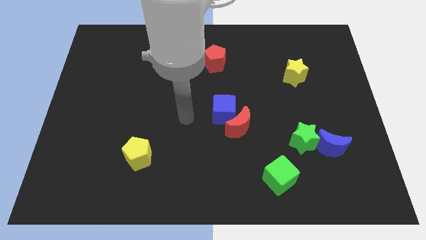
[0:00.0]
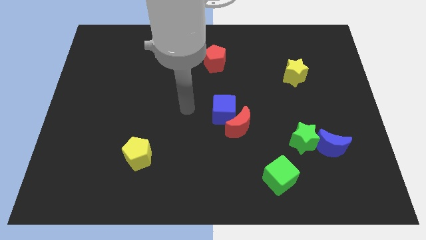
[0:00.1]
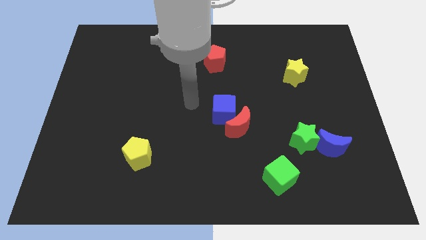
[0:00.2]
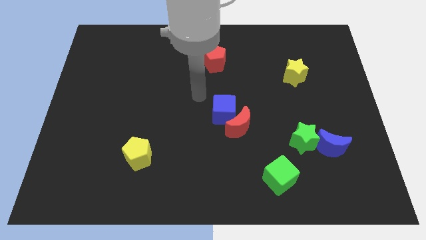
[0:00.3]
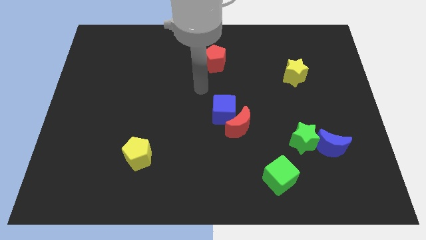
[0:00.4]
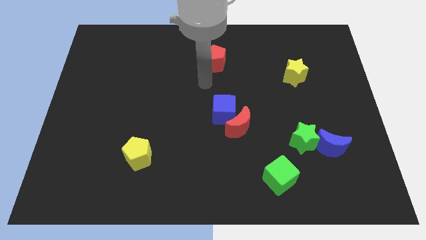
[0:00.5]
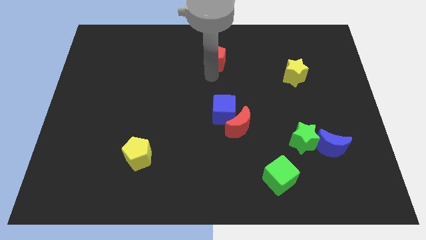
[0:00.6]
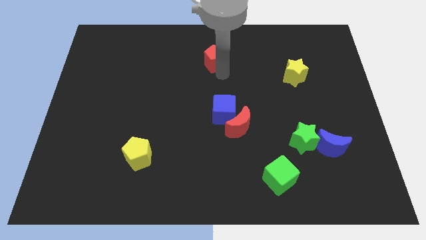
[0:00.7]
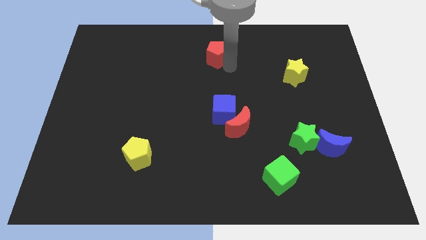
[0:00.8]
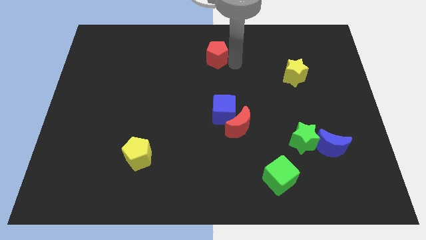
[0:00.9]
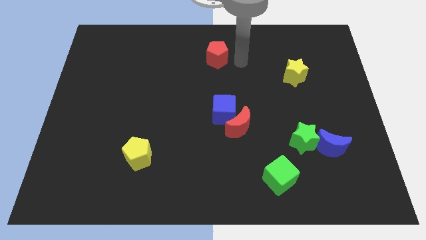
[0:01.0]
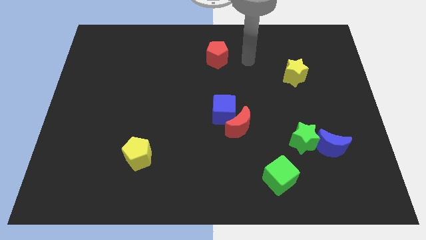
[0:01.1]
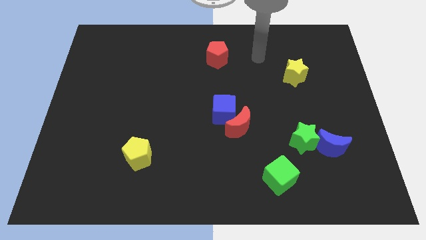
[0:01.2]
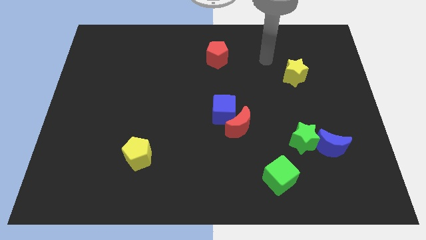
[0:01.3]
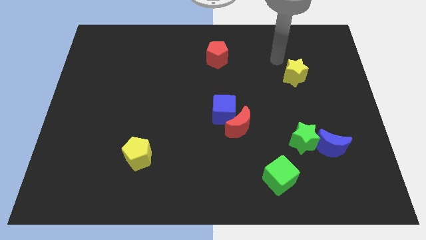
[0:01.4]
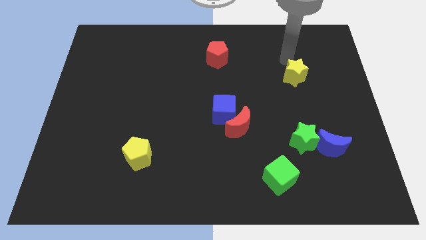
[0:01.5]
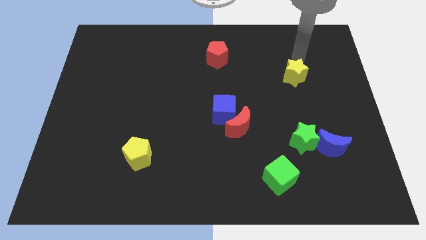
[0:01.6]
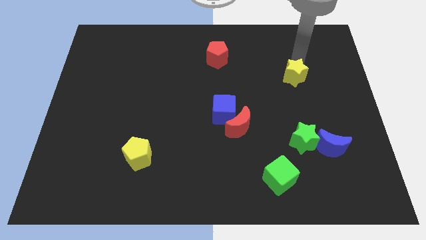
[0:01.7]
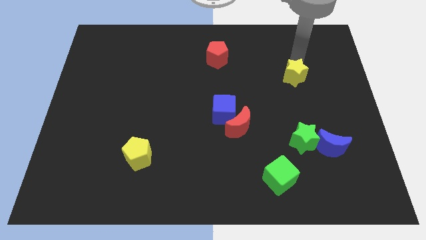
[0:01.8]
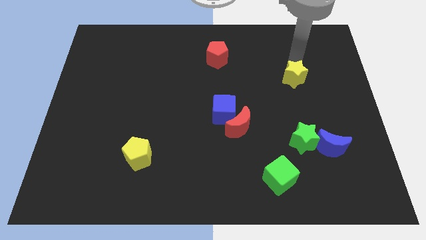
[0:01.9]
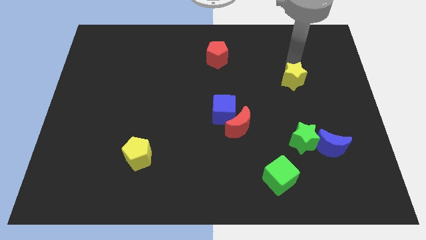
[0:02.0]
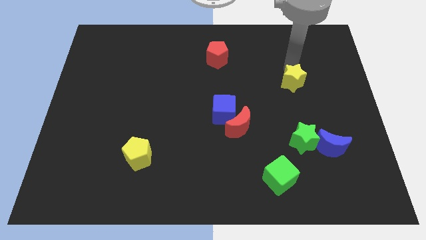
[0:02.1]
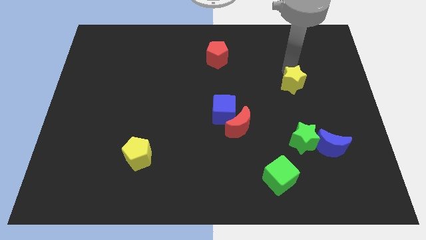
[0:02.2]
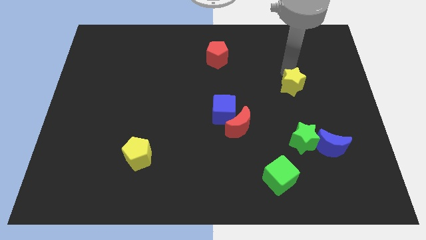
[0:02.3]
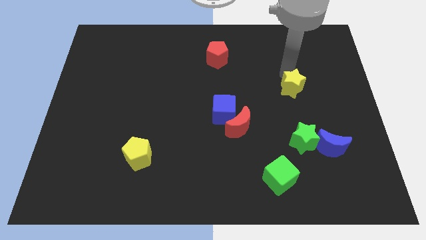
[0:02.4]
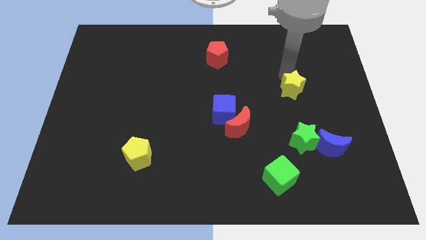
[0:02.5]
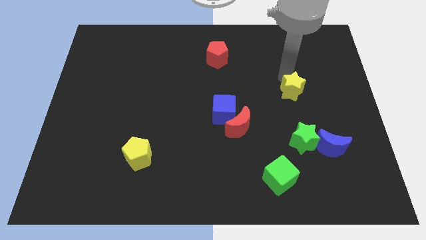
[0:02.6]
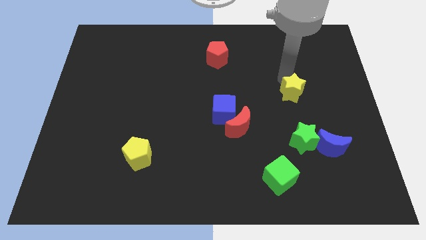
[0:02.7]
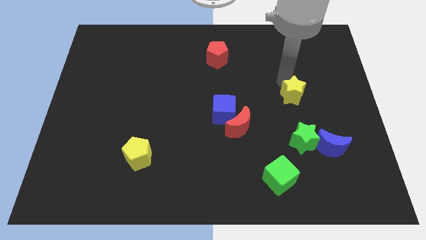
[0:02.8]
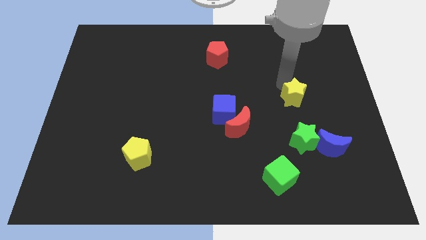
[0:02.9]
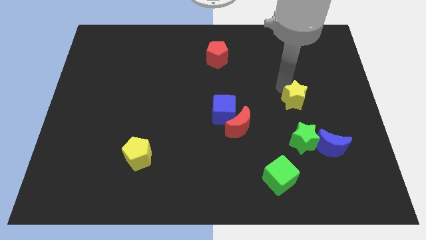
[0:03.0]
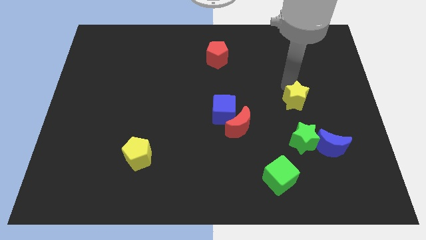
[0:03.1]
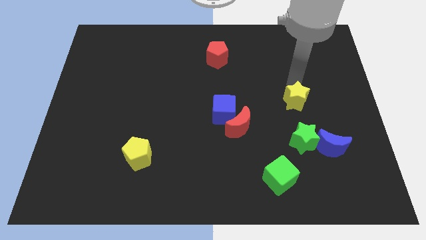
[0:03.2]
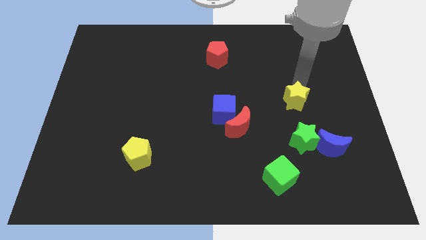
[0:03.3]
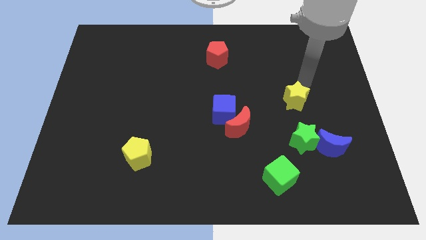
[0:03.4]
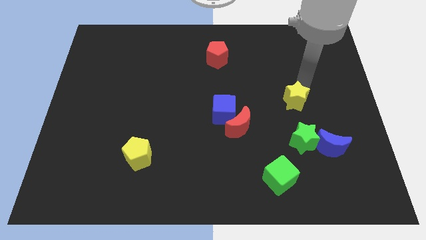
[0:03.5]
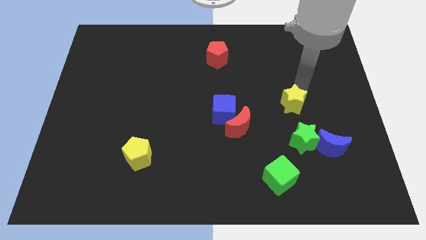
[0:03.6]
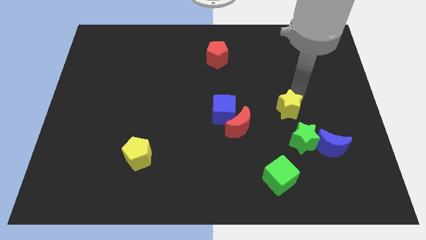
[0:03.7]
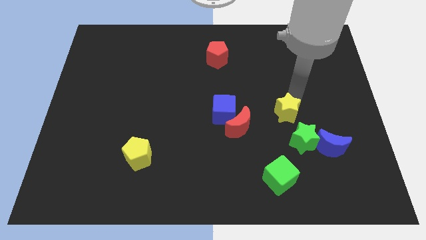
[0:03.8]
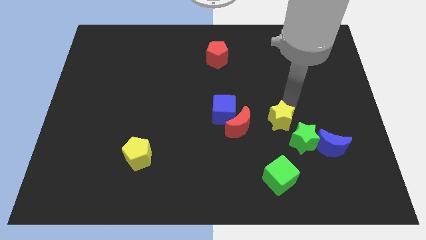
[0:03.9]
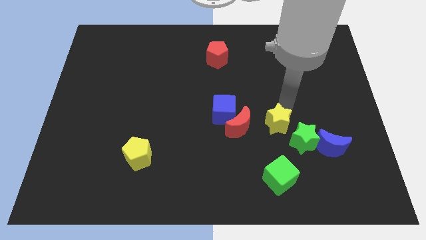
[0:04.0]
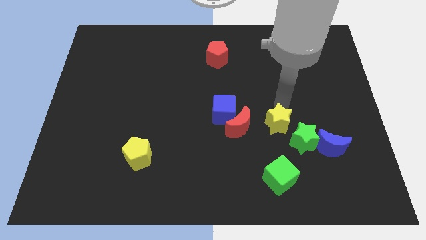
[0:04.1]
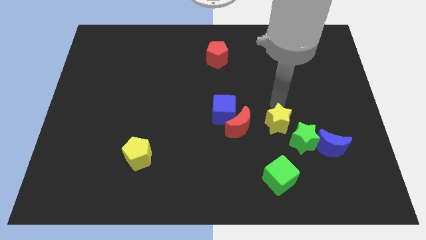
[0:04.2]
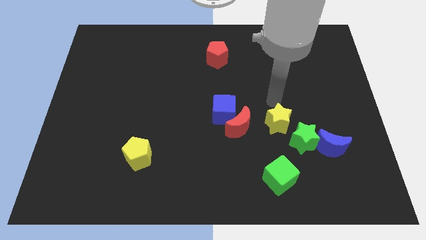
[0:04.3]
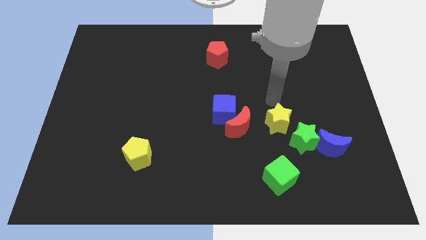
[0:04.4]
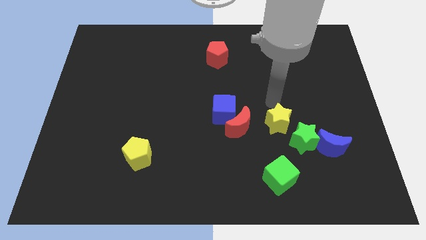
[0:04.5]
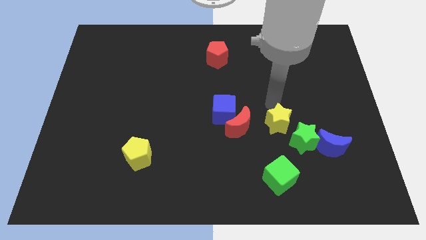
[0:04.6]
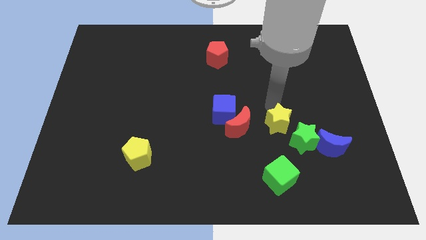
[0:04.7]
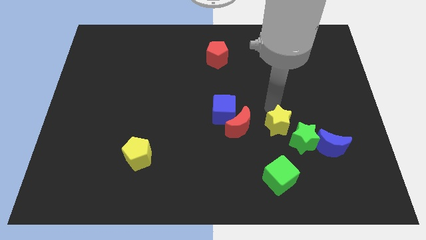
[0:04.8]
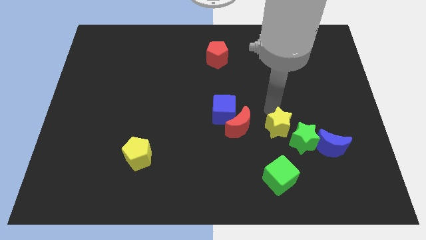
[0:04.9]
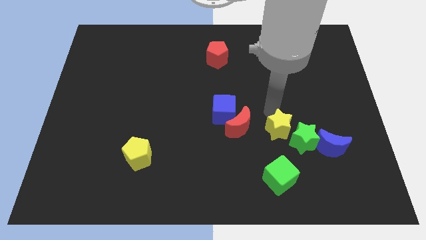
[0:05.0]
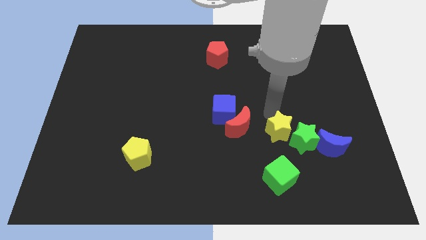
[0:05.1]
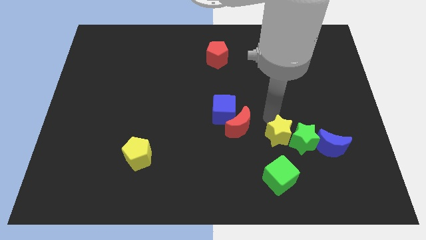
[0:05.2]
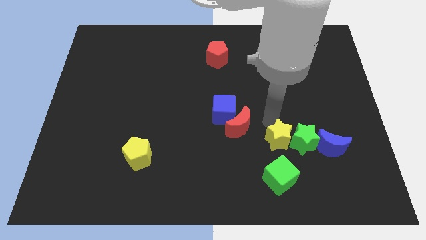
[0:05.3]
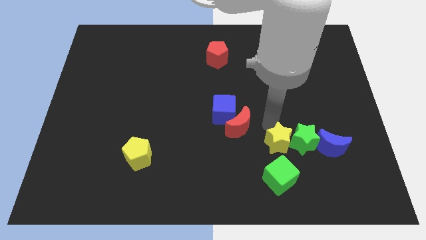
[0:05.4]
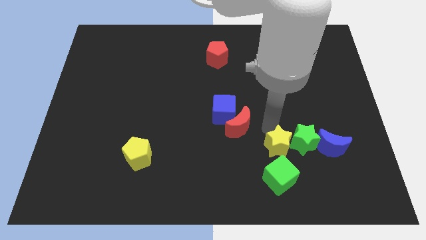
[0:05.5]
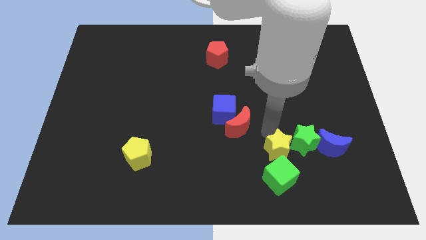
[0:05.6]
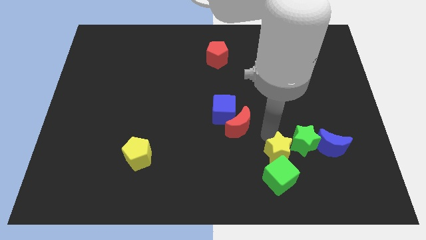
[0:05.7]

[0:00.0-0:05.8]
put the yellow star close to the green cube
